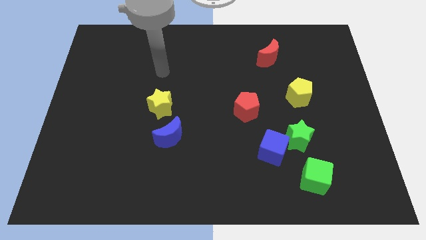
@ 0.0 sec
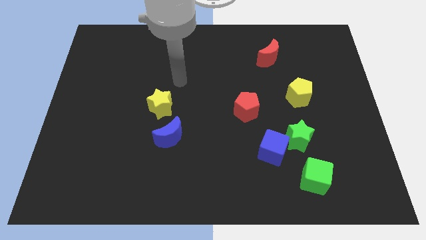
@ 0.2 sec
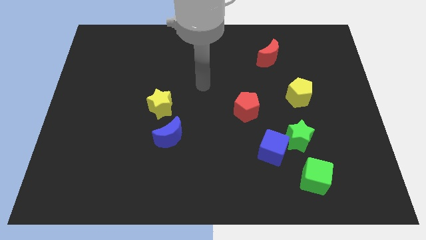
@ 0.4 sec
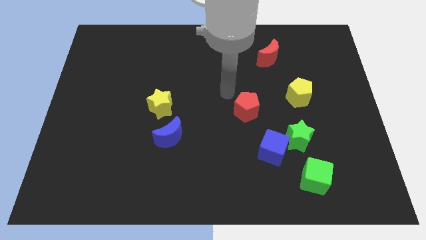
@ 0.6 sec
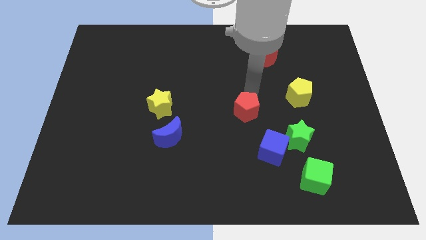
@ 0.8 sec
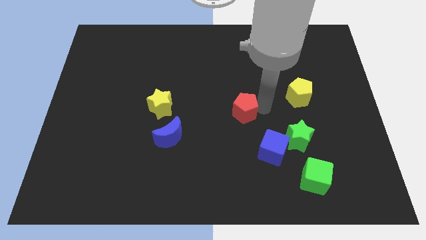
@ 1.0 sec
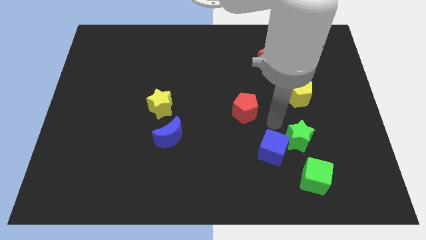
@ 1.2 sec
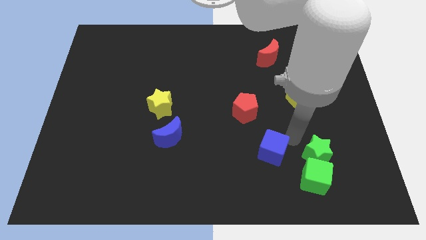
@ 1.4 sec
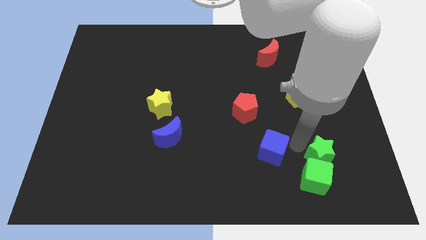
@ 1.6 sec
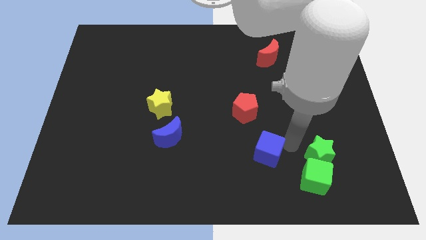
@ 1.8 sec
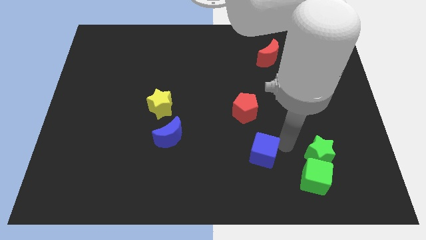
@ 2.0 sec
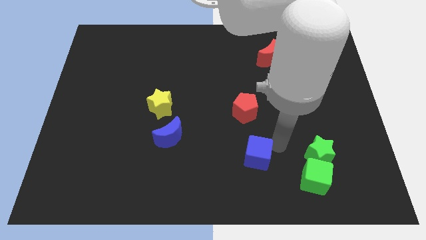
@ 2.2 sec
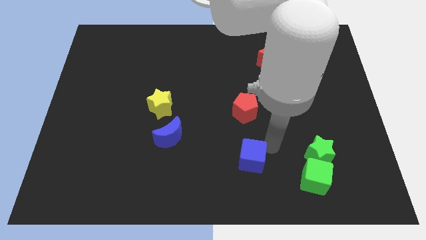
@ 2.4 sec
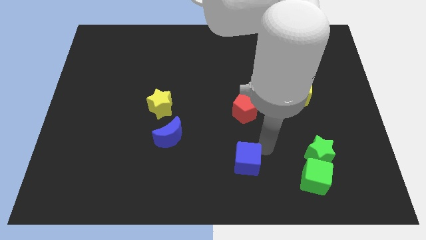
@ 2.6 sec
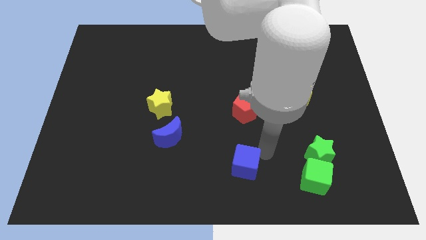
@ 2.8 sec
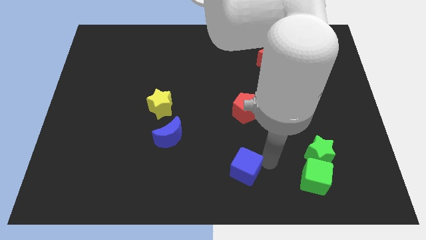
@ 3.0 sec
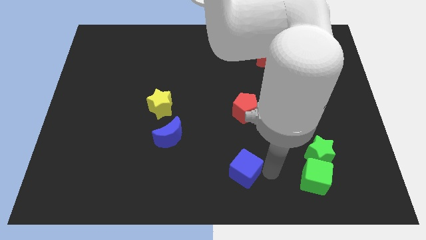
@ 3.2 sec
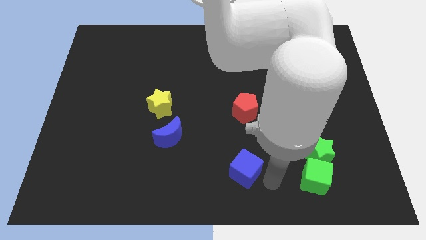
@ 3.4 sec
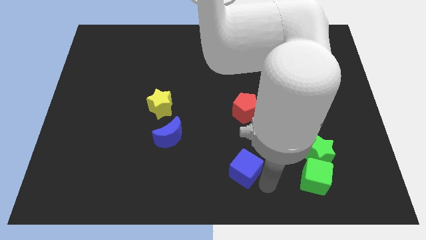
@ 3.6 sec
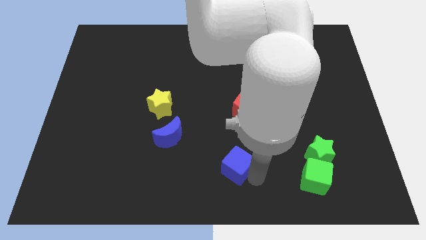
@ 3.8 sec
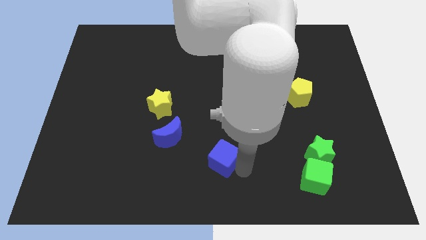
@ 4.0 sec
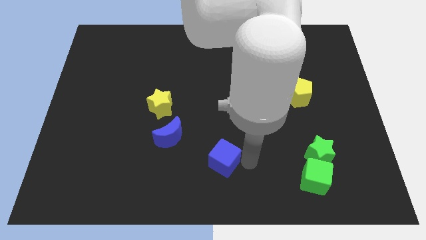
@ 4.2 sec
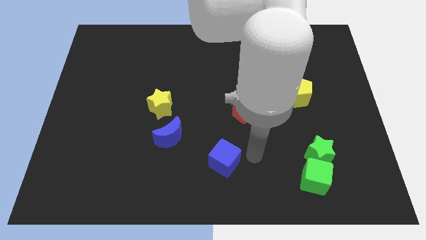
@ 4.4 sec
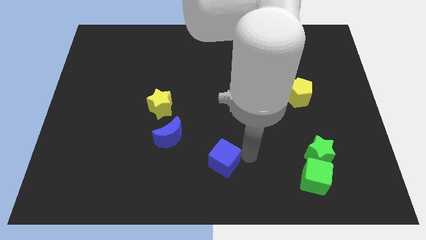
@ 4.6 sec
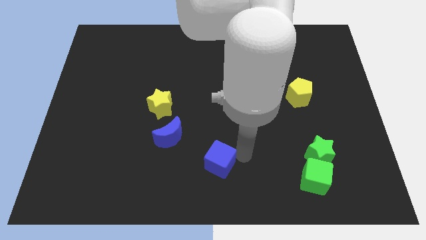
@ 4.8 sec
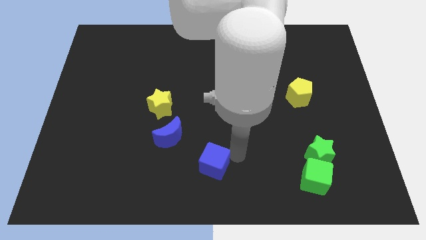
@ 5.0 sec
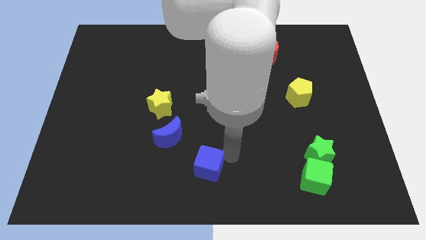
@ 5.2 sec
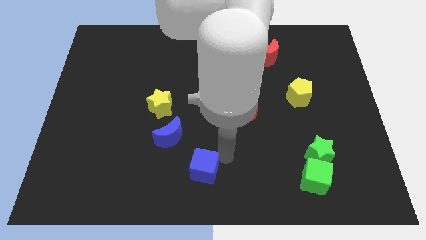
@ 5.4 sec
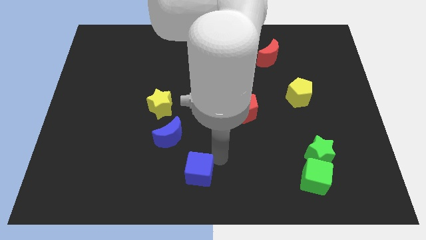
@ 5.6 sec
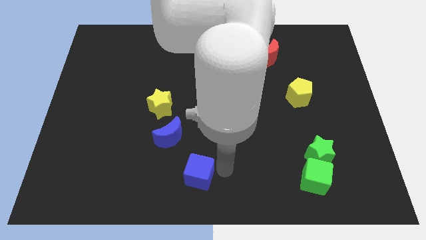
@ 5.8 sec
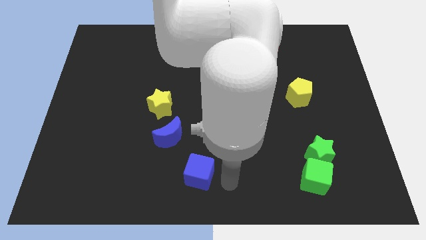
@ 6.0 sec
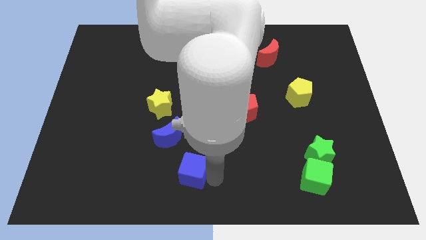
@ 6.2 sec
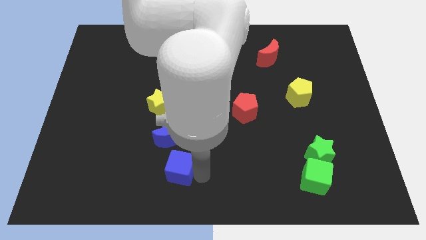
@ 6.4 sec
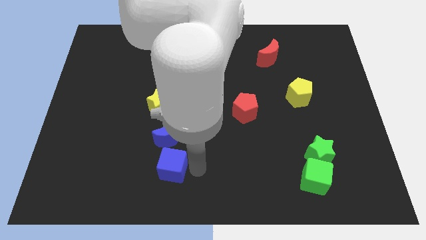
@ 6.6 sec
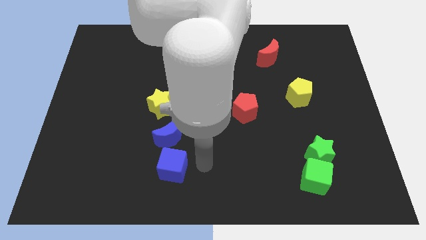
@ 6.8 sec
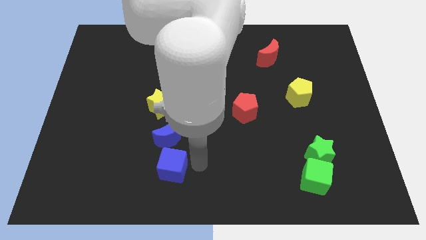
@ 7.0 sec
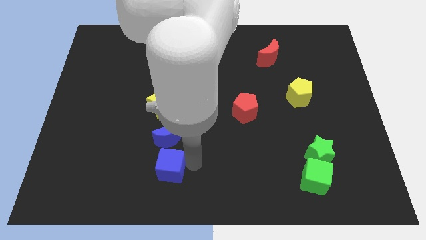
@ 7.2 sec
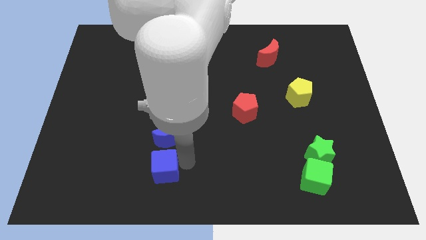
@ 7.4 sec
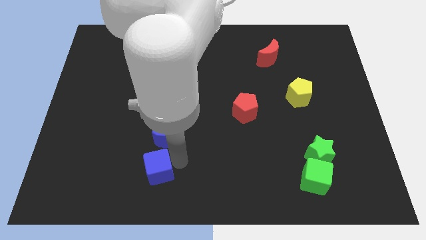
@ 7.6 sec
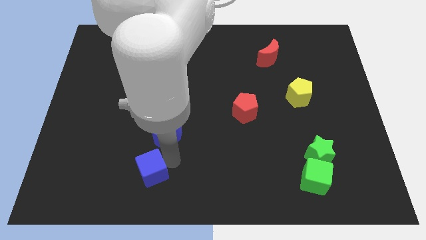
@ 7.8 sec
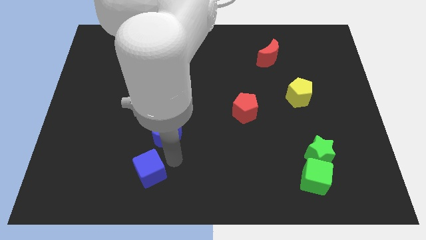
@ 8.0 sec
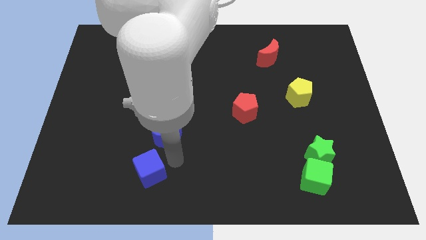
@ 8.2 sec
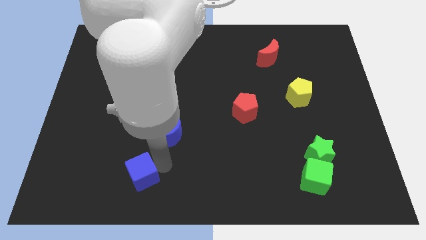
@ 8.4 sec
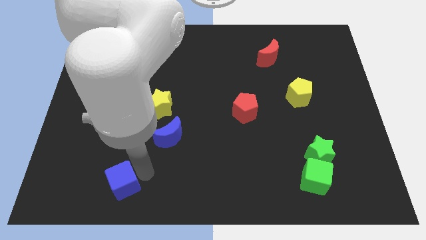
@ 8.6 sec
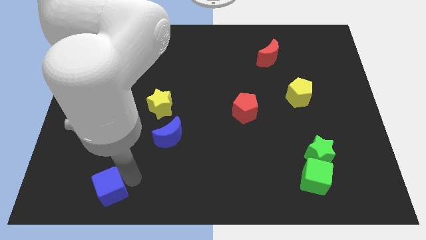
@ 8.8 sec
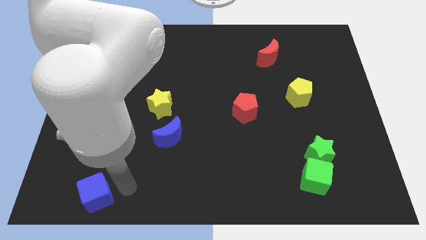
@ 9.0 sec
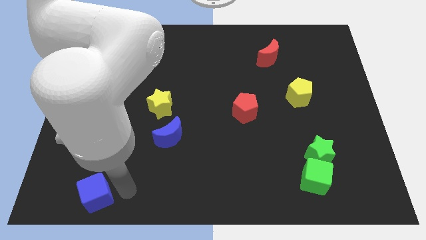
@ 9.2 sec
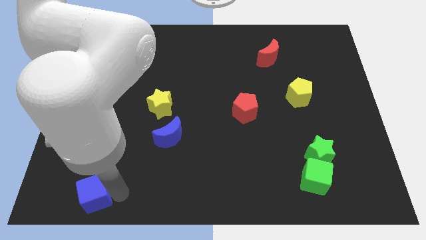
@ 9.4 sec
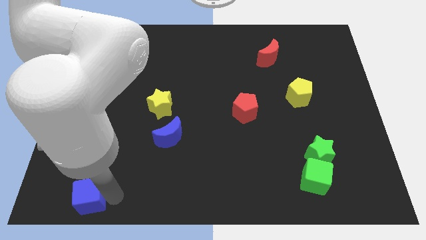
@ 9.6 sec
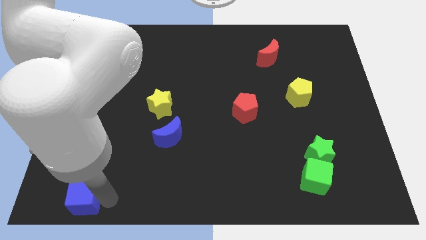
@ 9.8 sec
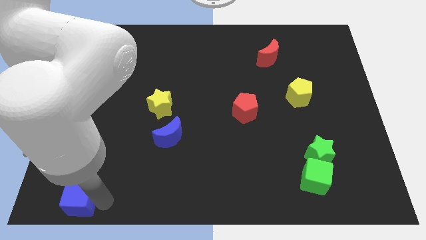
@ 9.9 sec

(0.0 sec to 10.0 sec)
slide the blue cube to the lower left corner

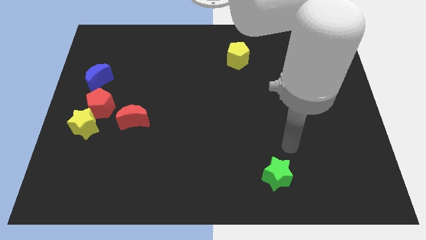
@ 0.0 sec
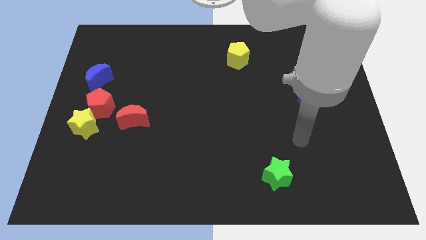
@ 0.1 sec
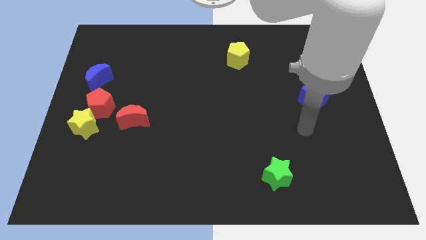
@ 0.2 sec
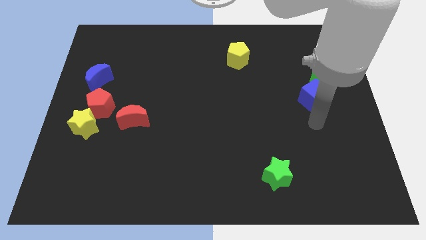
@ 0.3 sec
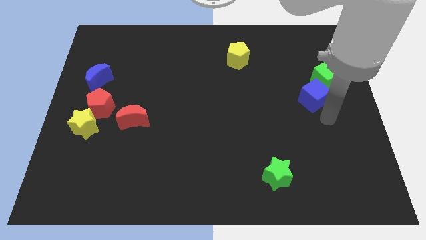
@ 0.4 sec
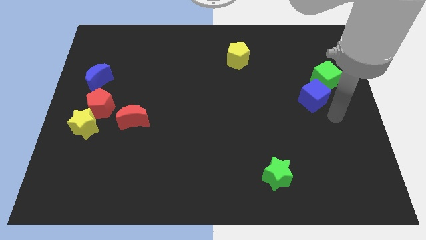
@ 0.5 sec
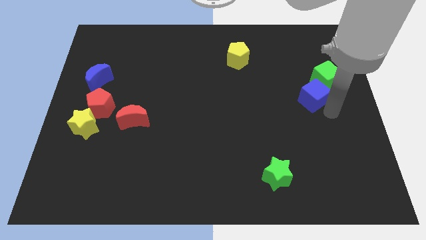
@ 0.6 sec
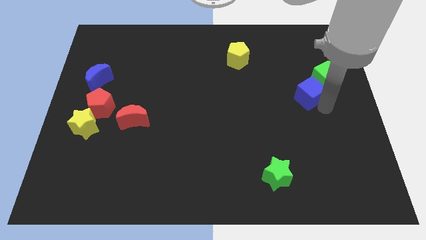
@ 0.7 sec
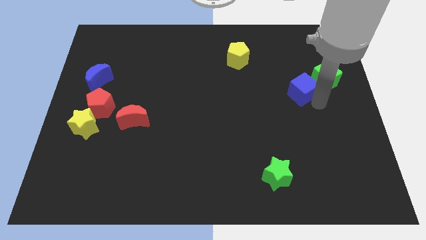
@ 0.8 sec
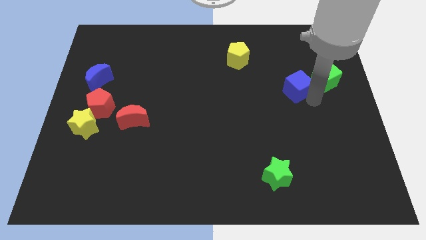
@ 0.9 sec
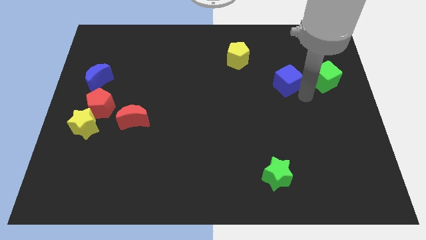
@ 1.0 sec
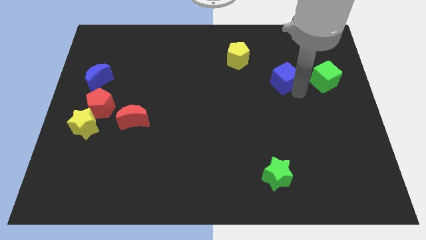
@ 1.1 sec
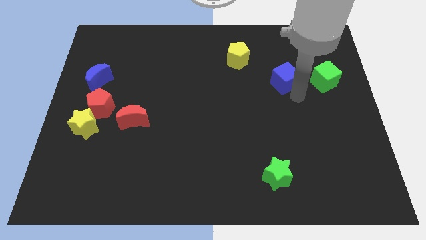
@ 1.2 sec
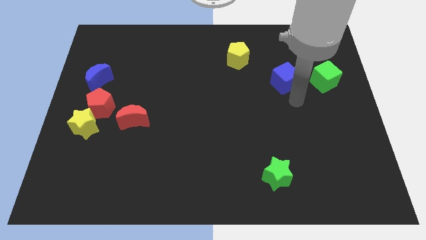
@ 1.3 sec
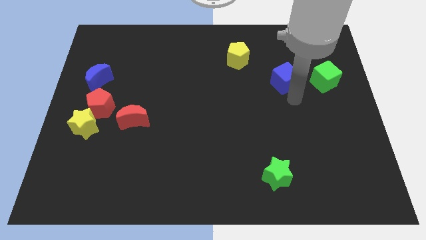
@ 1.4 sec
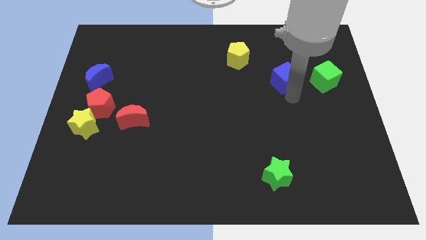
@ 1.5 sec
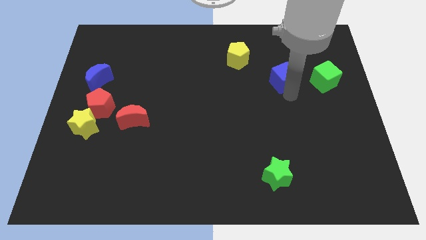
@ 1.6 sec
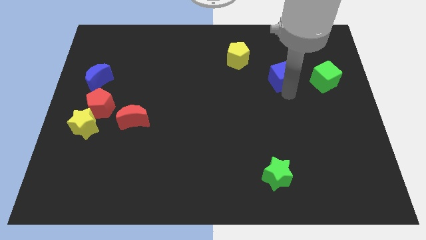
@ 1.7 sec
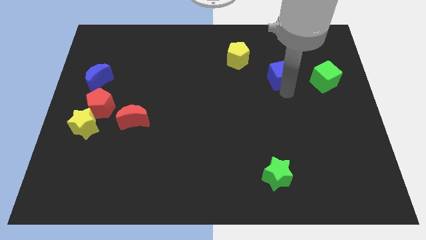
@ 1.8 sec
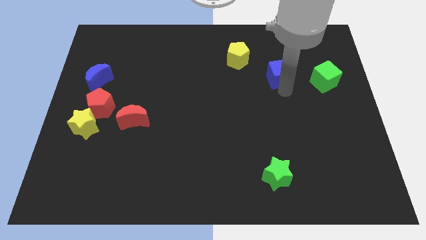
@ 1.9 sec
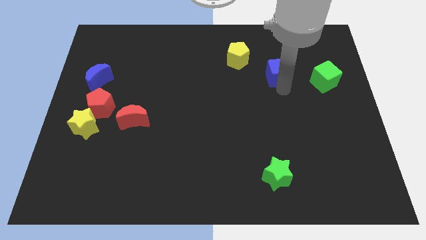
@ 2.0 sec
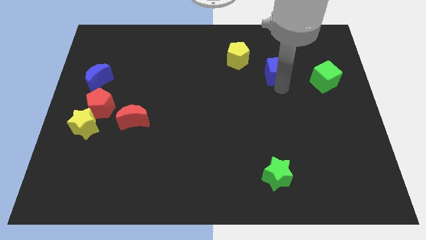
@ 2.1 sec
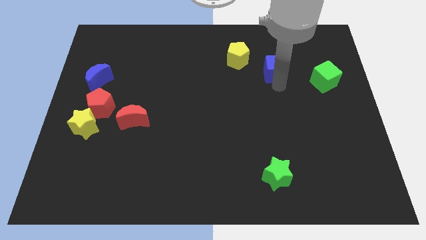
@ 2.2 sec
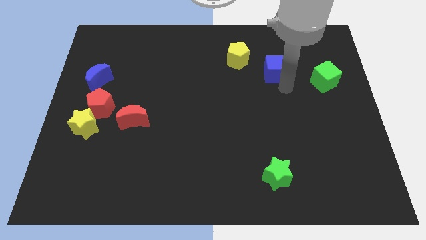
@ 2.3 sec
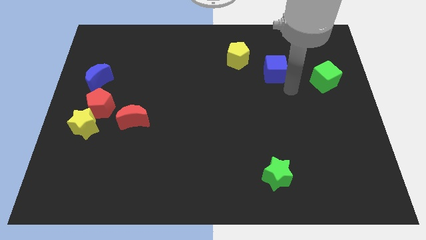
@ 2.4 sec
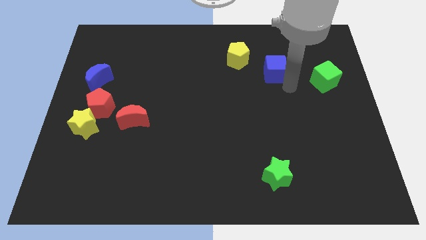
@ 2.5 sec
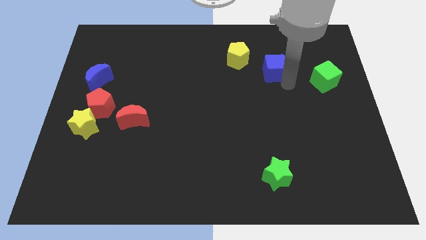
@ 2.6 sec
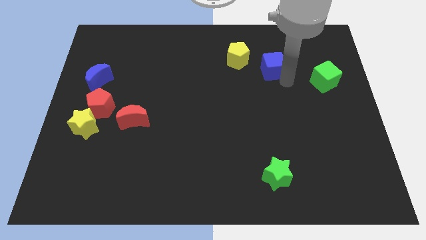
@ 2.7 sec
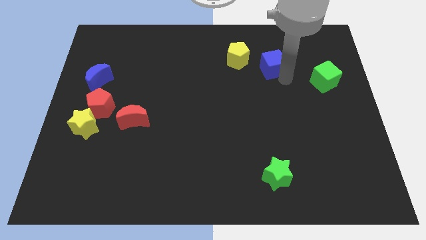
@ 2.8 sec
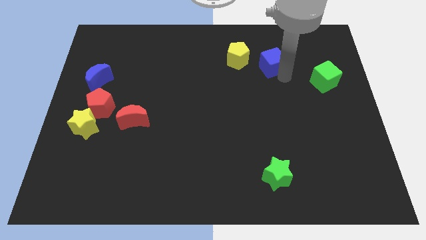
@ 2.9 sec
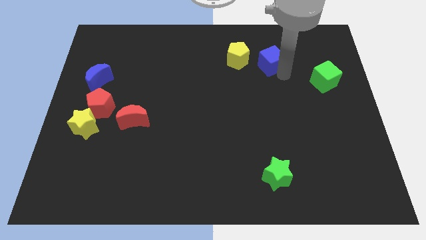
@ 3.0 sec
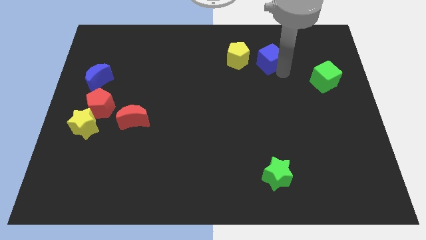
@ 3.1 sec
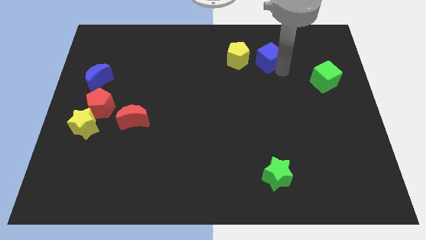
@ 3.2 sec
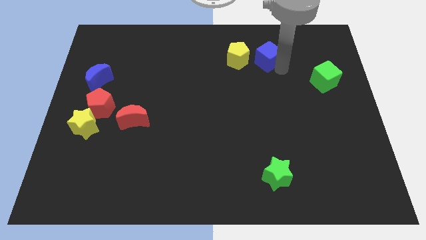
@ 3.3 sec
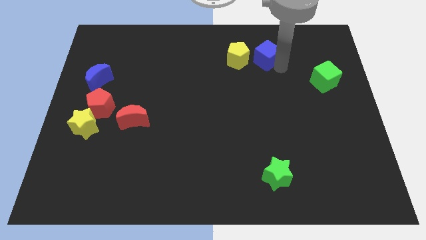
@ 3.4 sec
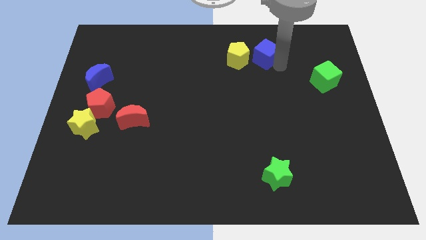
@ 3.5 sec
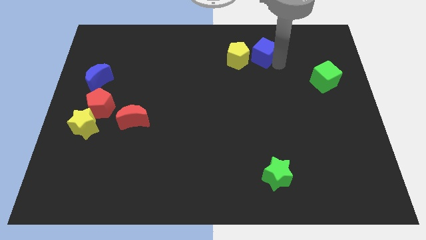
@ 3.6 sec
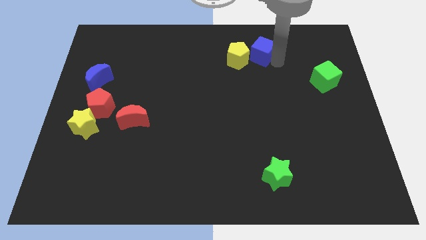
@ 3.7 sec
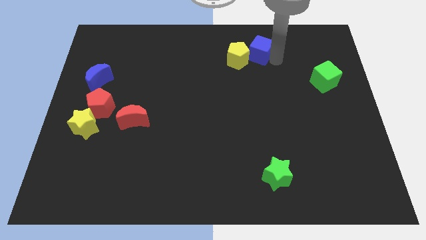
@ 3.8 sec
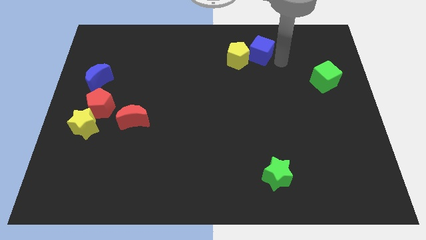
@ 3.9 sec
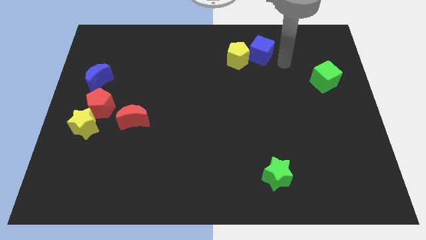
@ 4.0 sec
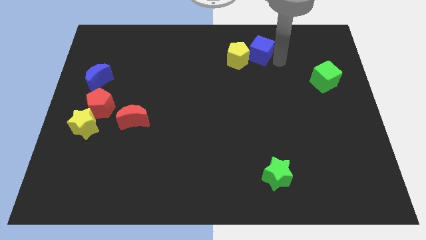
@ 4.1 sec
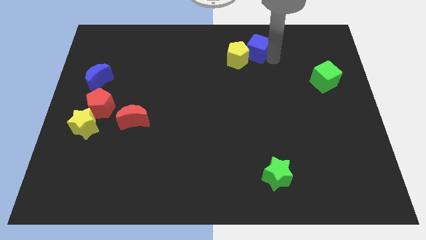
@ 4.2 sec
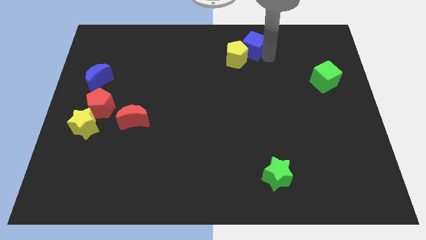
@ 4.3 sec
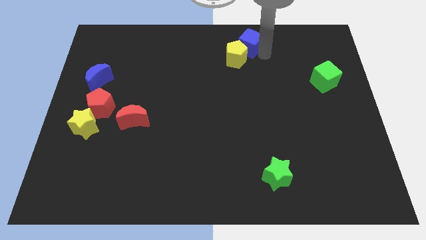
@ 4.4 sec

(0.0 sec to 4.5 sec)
move the blue cube to the top
